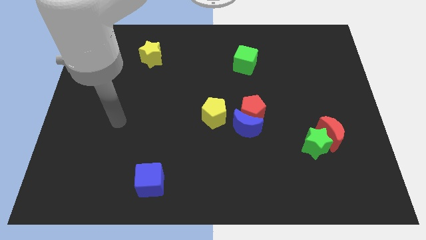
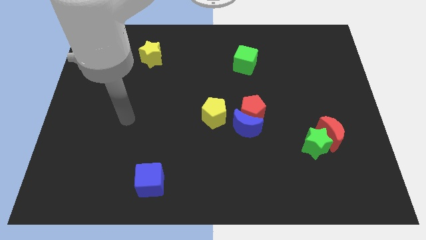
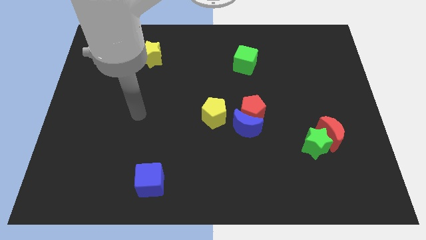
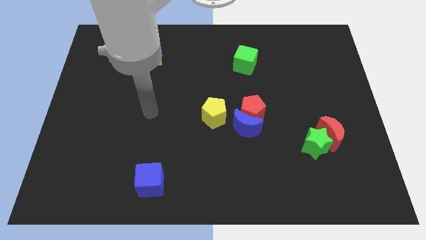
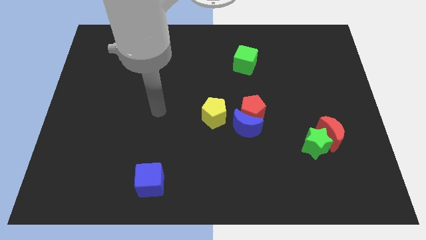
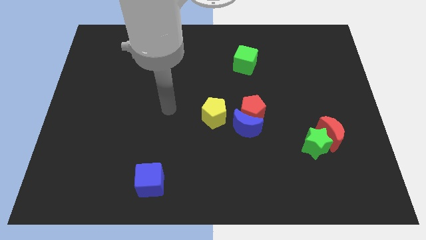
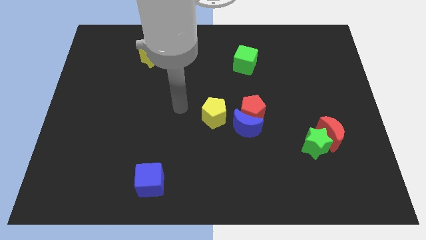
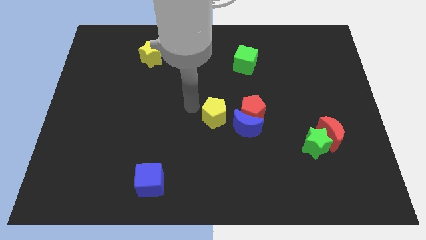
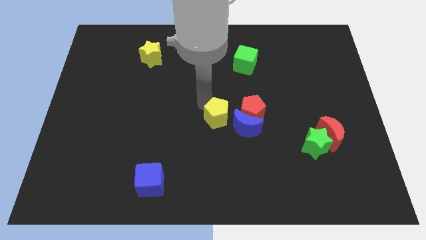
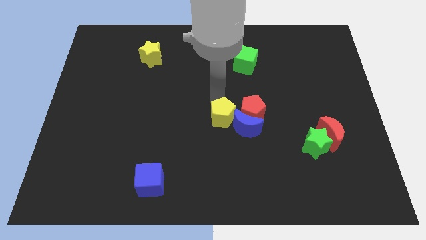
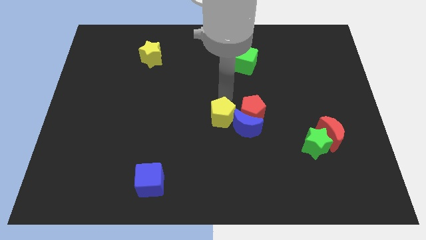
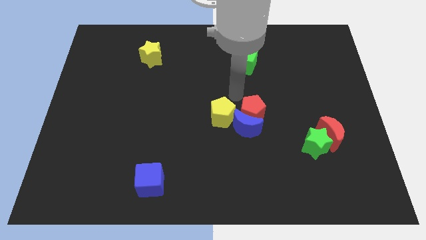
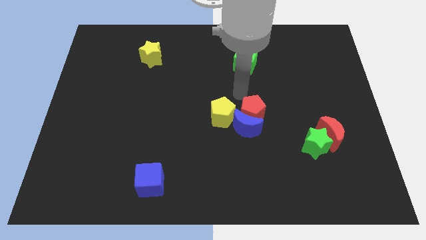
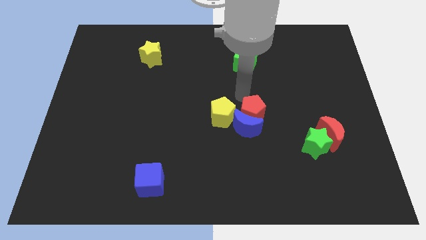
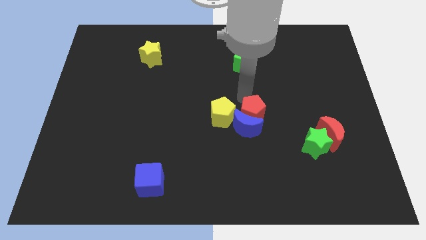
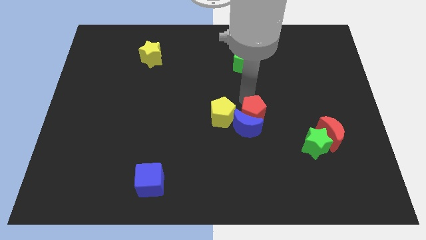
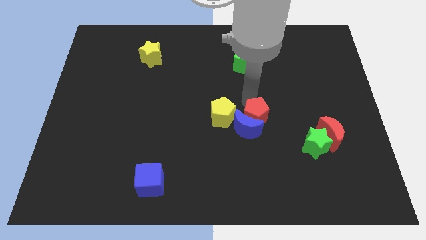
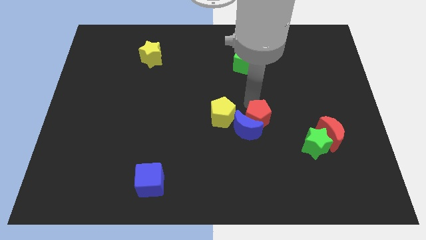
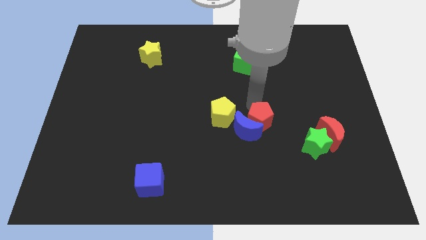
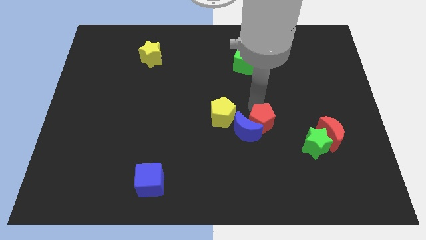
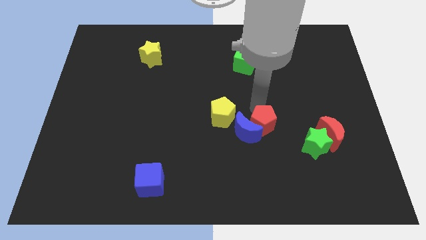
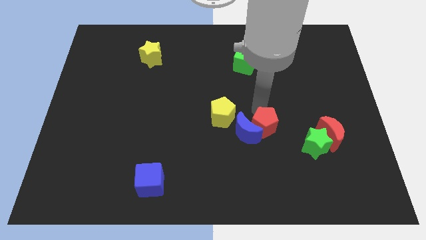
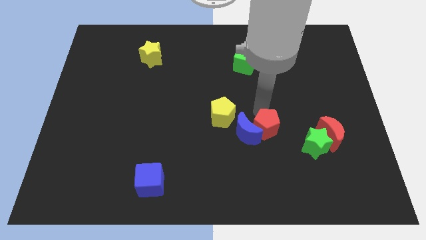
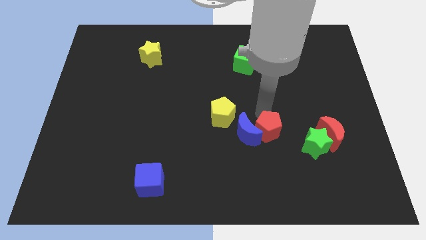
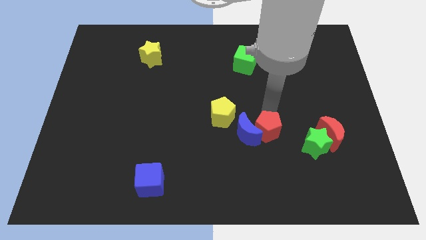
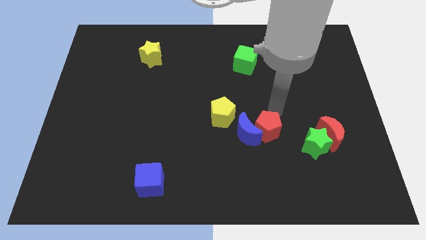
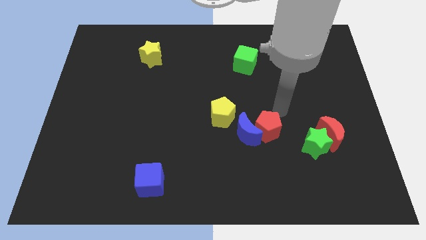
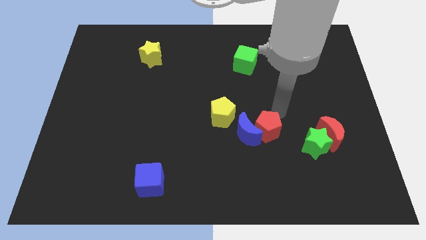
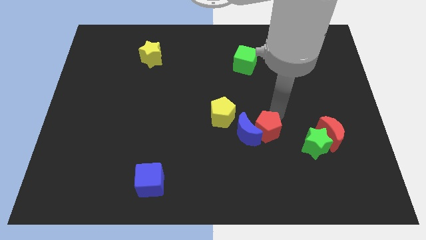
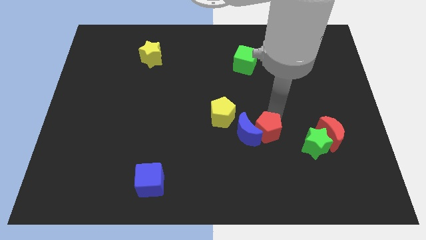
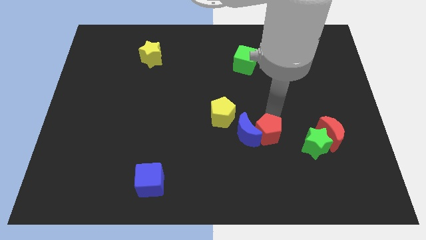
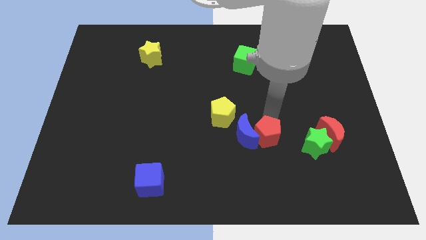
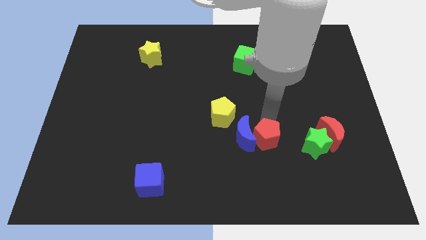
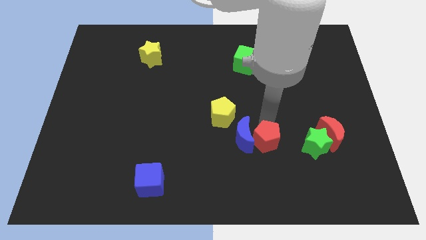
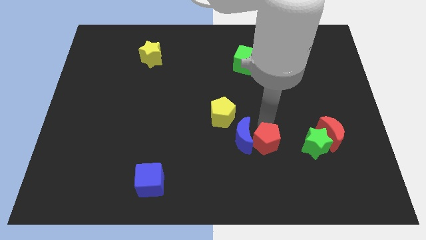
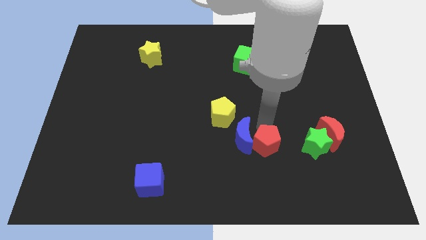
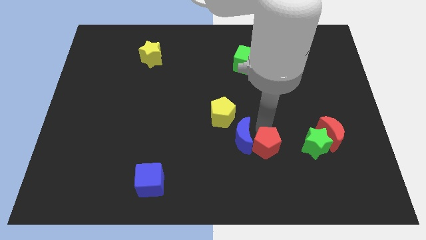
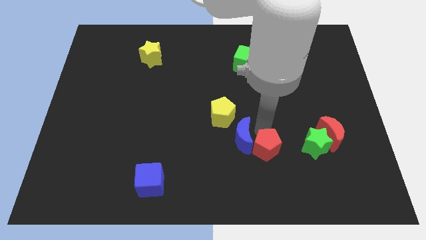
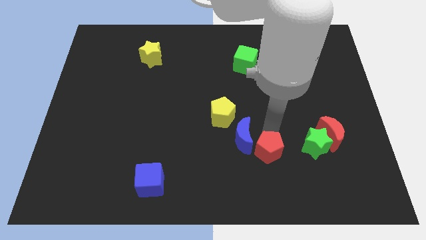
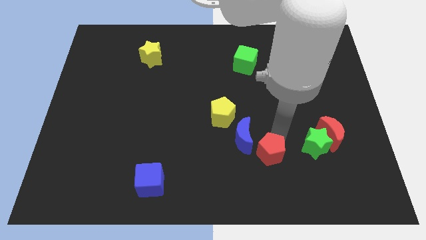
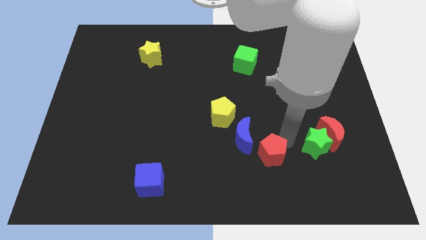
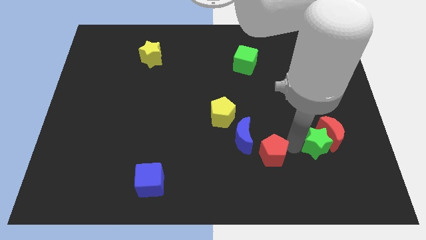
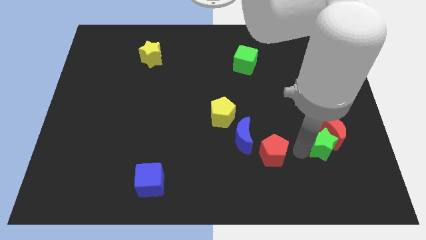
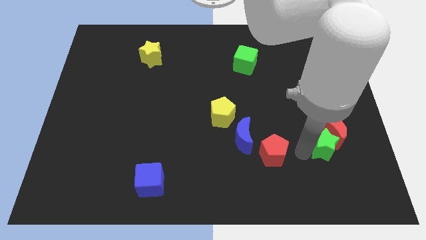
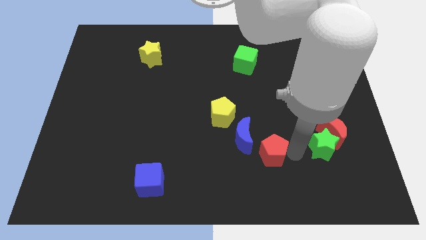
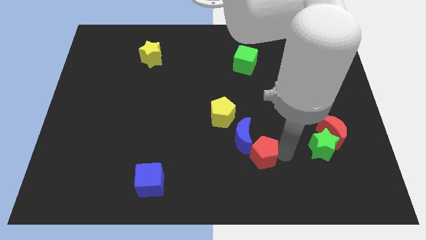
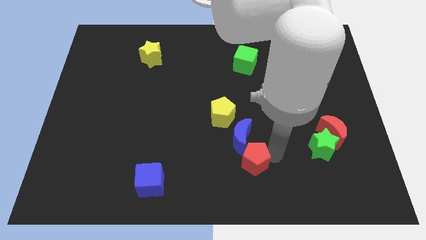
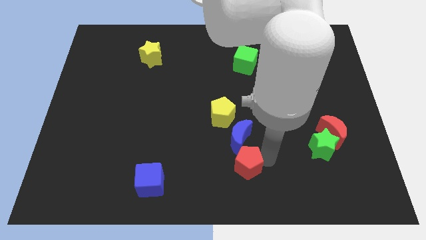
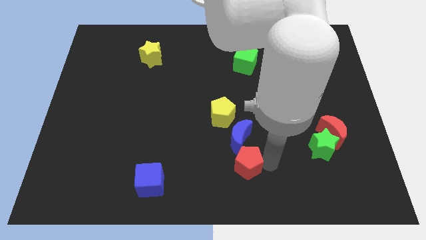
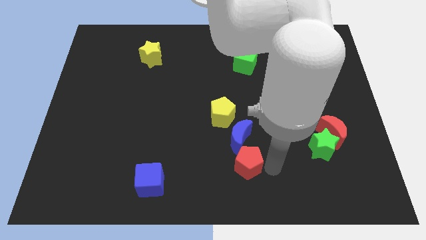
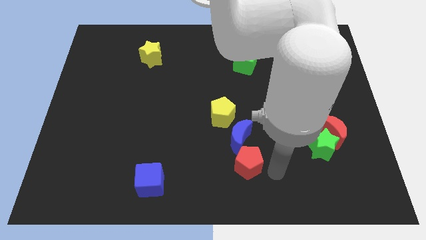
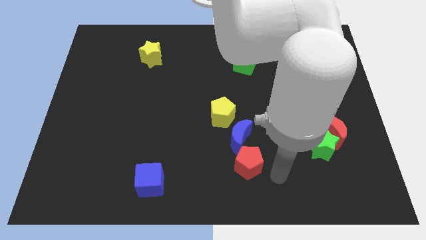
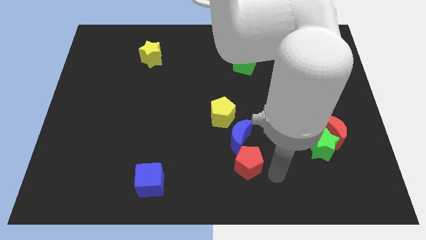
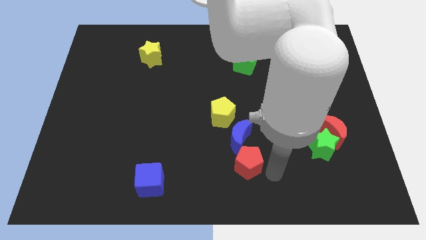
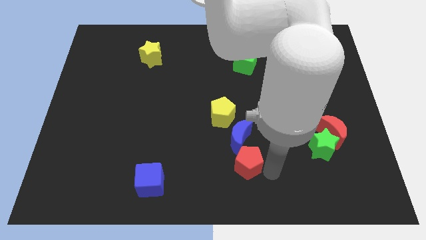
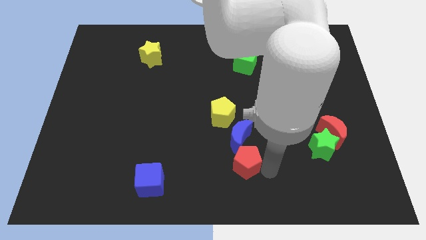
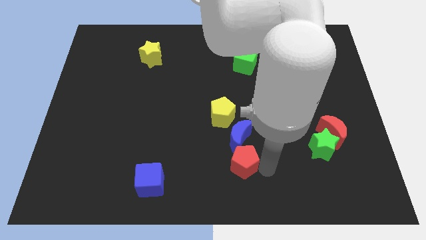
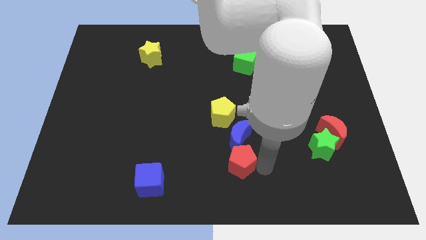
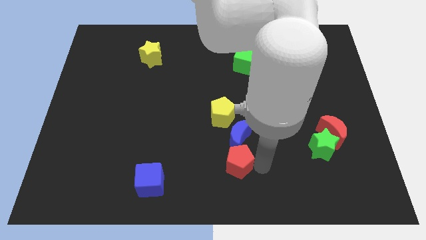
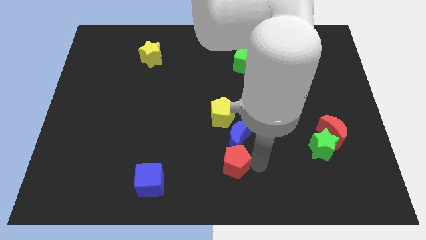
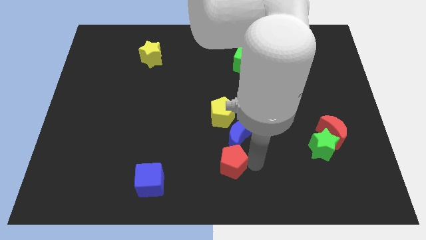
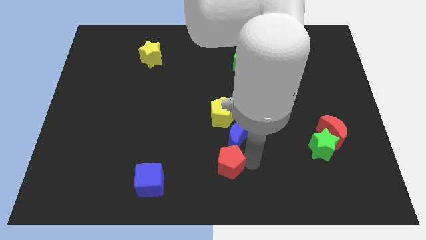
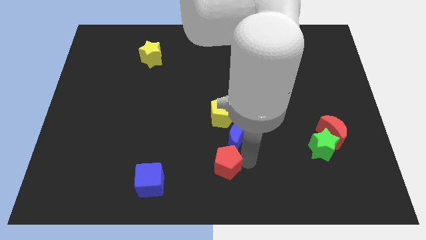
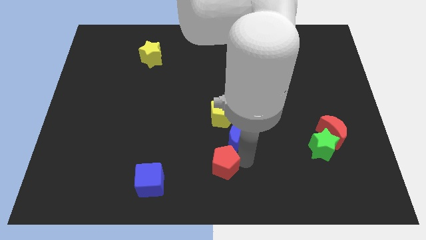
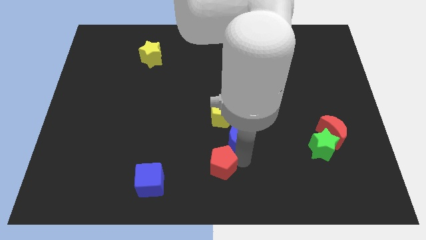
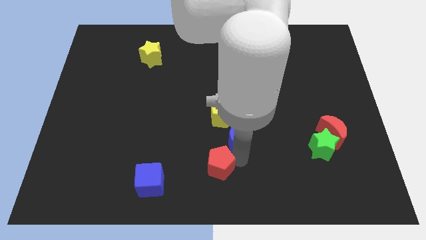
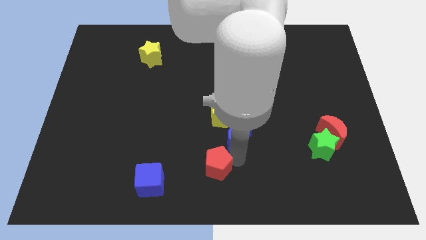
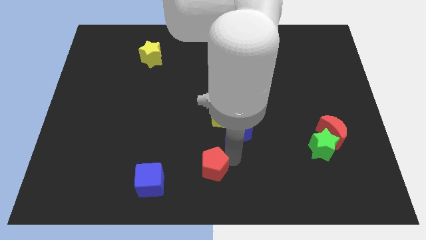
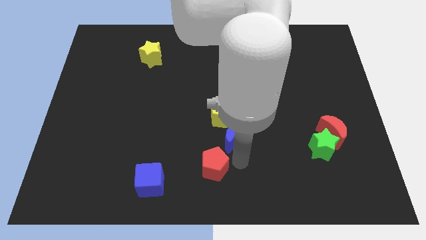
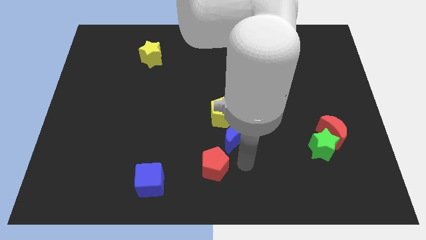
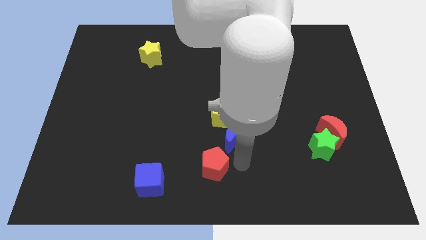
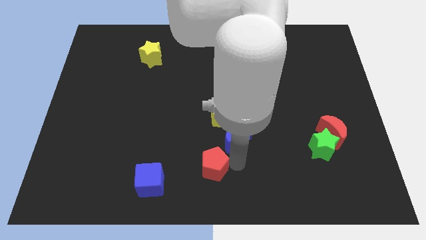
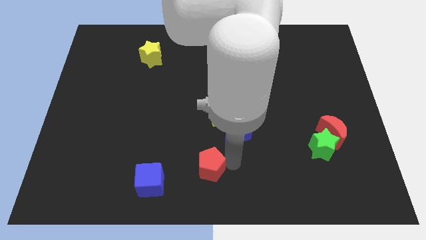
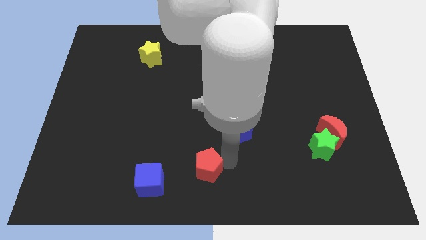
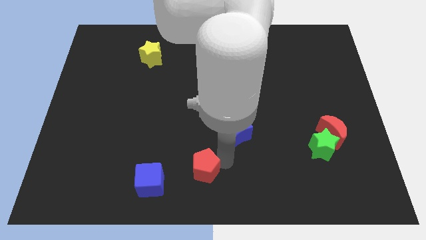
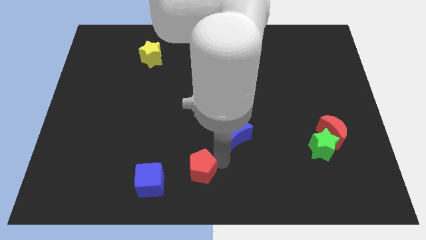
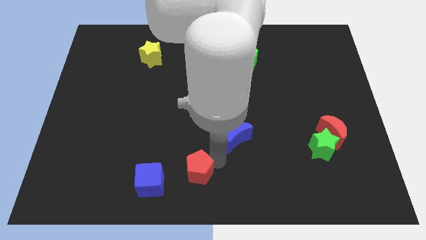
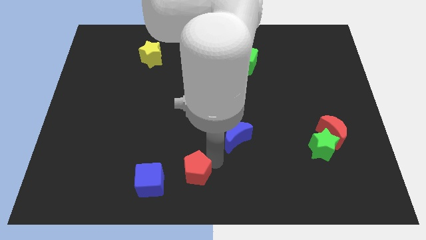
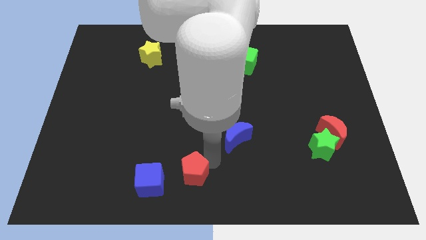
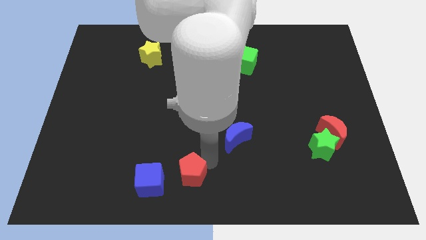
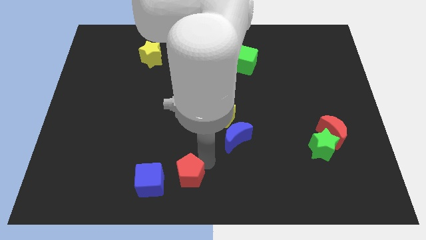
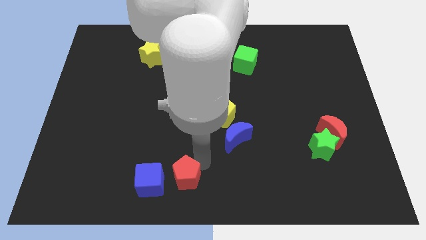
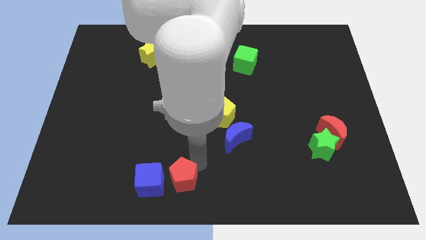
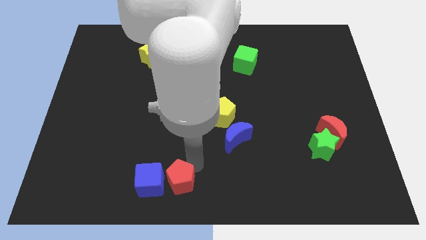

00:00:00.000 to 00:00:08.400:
slide the red pentagon to the blue cube
